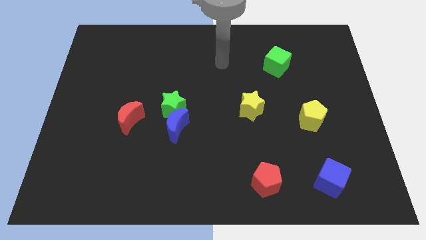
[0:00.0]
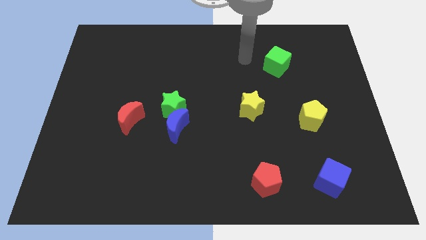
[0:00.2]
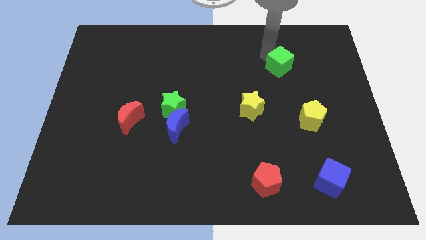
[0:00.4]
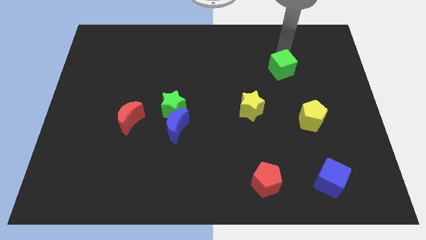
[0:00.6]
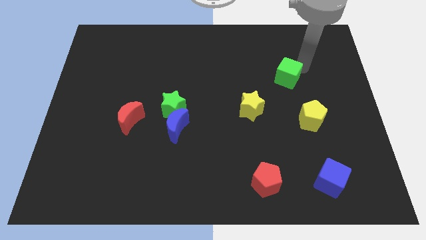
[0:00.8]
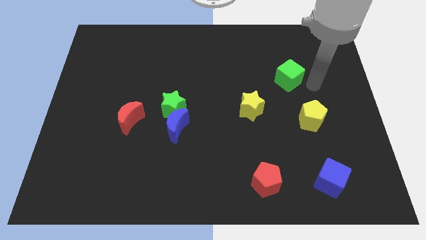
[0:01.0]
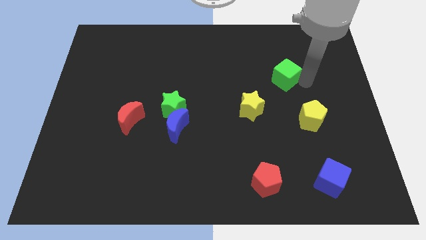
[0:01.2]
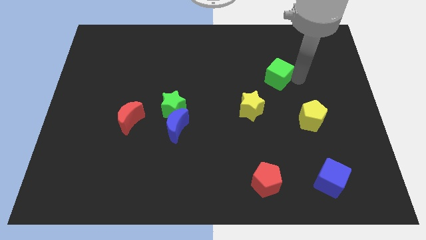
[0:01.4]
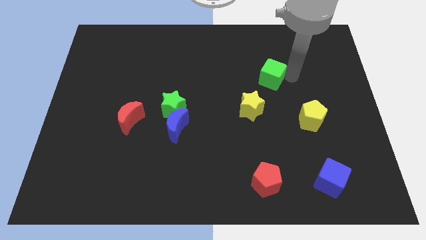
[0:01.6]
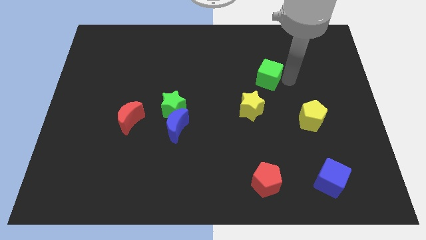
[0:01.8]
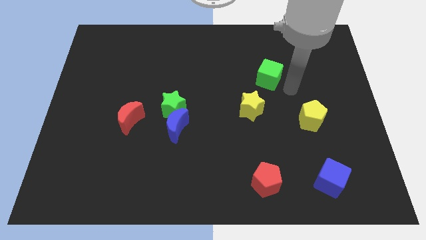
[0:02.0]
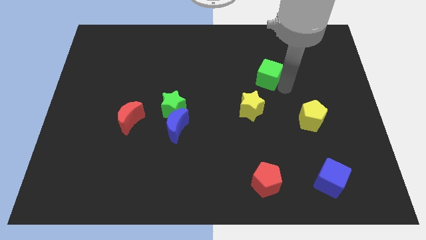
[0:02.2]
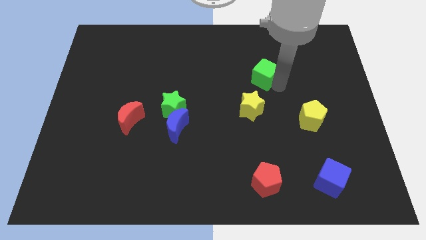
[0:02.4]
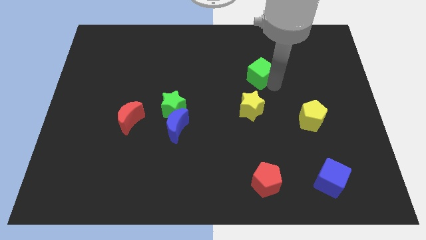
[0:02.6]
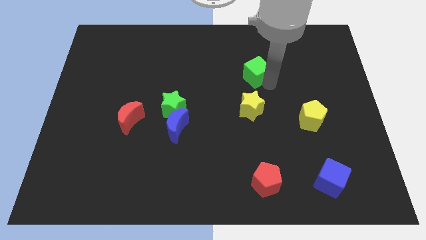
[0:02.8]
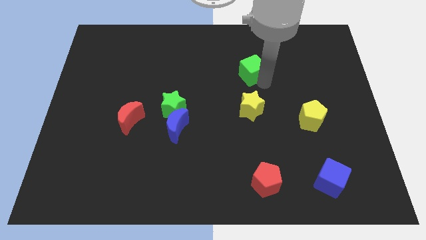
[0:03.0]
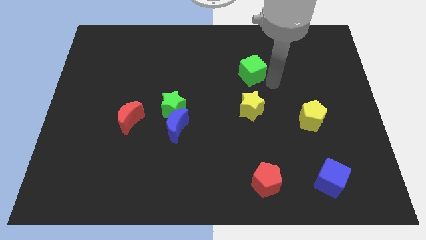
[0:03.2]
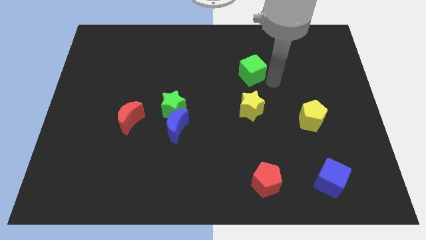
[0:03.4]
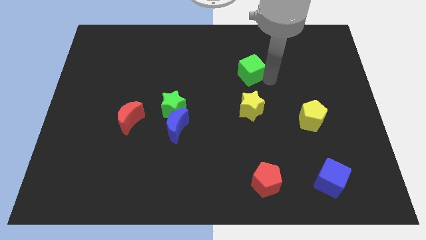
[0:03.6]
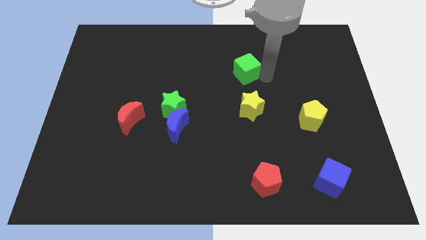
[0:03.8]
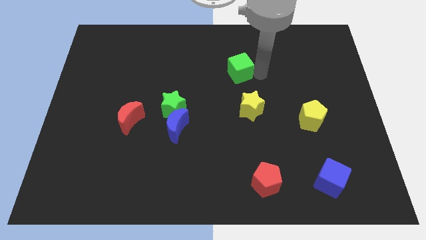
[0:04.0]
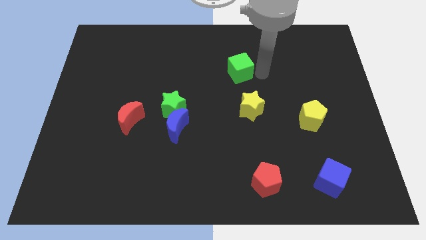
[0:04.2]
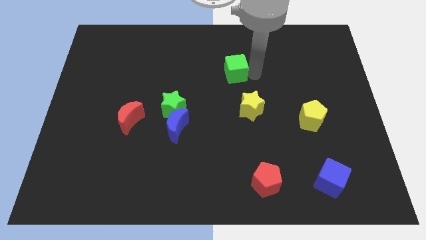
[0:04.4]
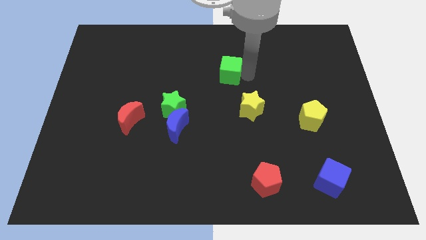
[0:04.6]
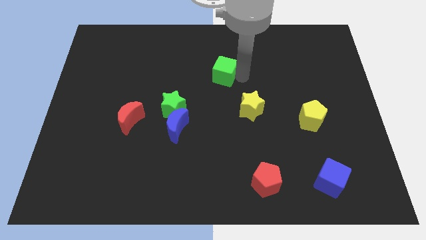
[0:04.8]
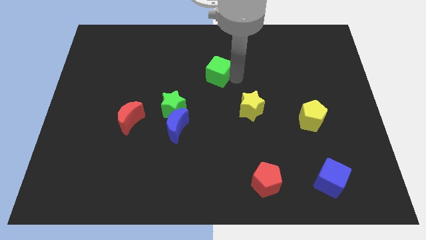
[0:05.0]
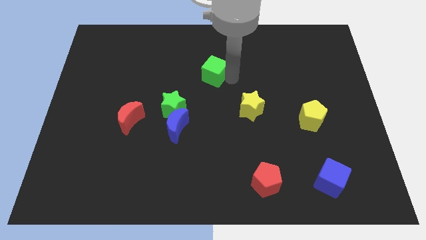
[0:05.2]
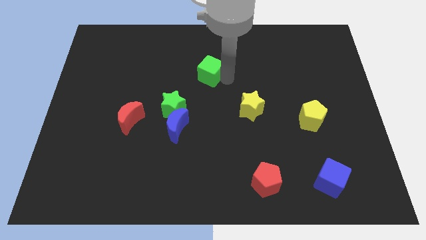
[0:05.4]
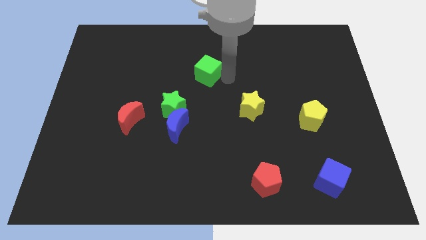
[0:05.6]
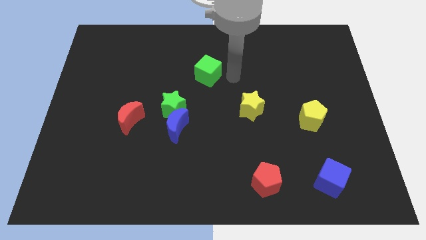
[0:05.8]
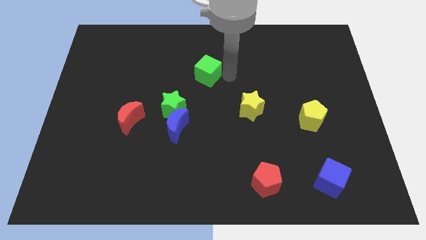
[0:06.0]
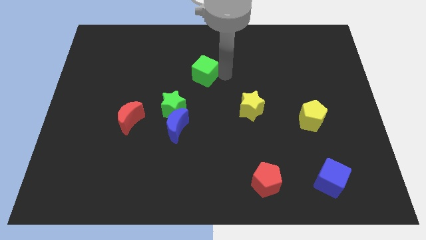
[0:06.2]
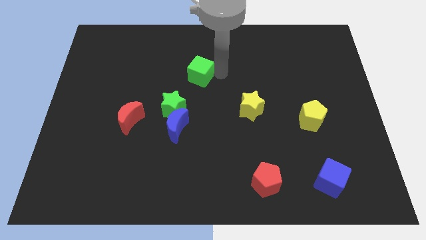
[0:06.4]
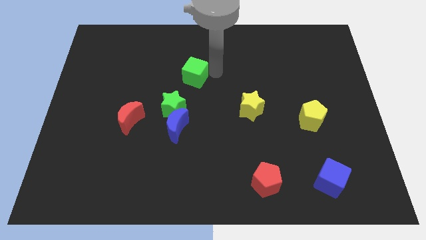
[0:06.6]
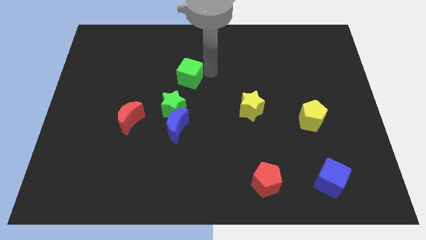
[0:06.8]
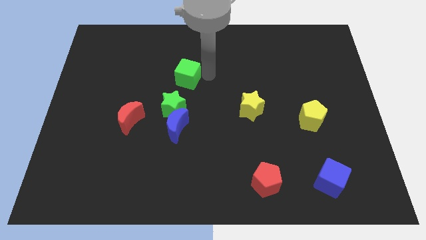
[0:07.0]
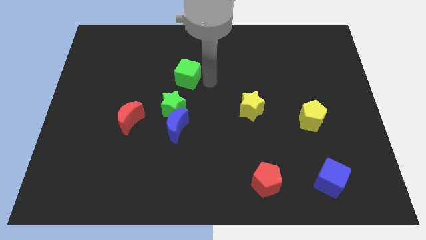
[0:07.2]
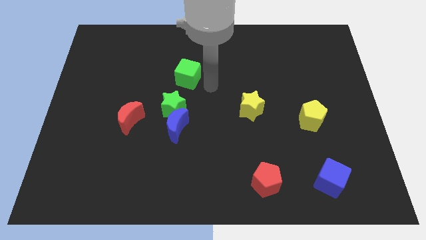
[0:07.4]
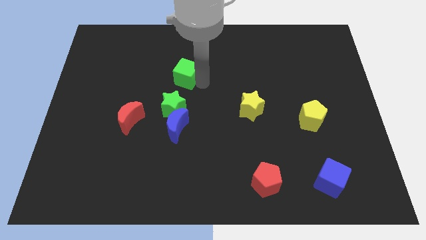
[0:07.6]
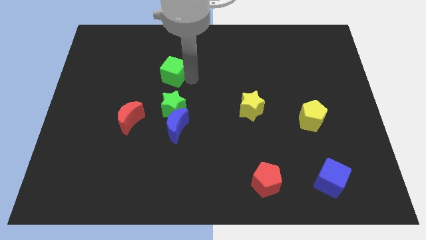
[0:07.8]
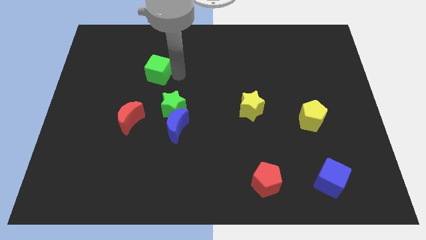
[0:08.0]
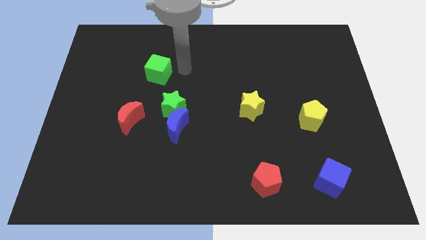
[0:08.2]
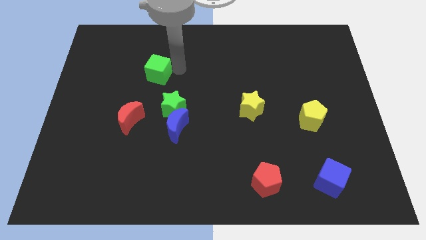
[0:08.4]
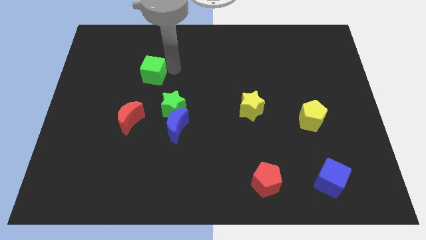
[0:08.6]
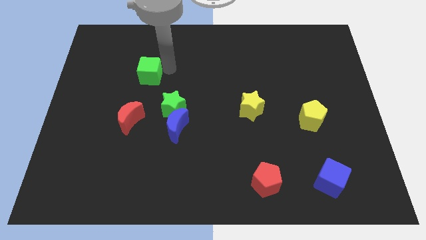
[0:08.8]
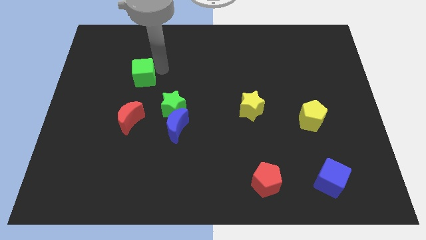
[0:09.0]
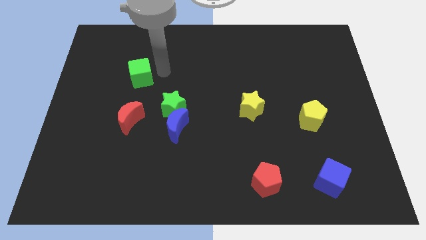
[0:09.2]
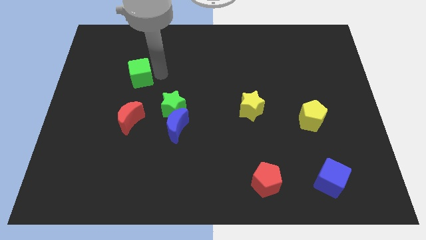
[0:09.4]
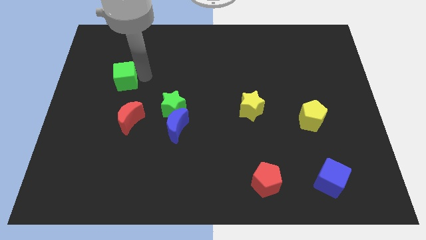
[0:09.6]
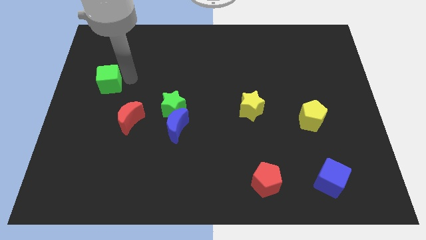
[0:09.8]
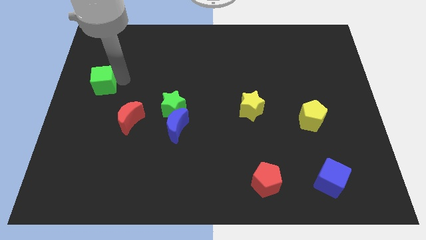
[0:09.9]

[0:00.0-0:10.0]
move the green cube to the left side

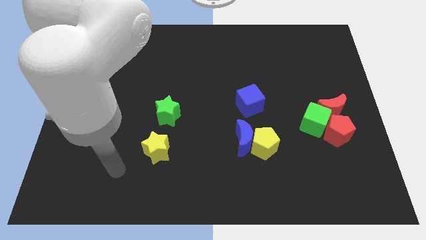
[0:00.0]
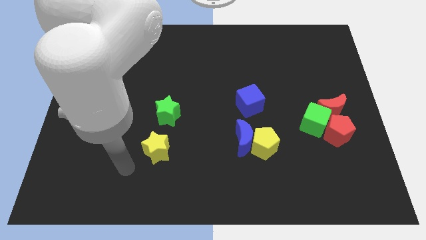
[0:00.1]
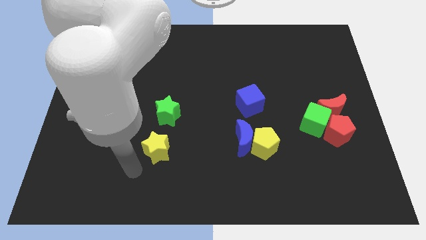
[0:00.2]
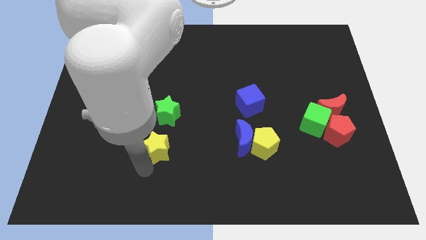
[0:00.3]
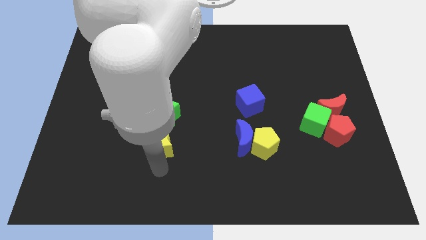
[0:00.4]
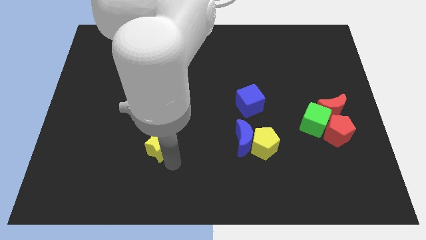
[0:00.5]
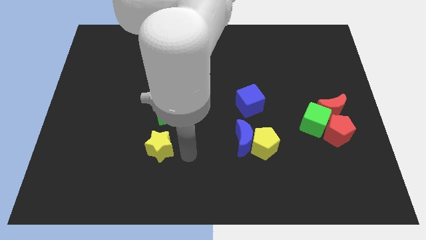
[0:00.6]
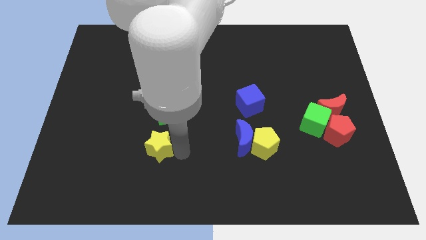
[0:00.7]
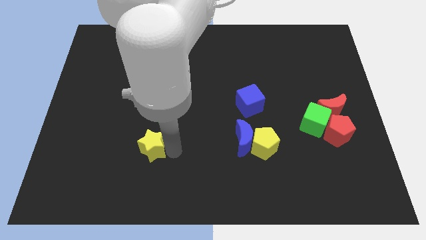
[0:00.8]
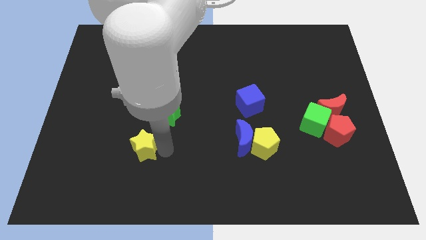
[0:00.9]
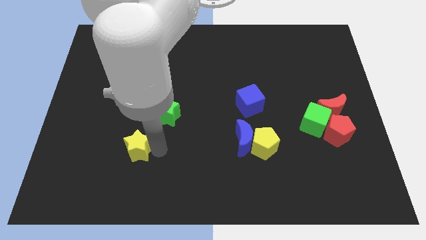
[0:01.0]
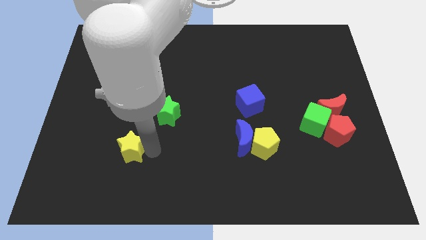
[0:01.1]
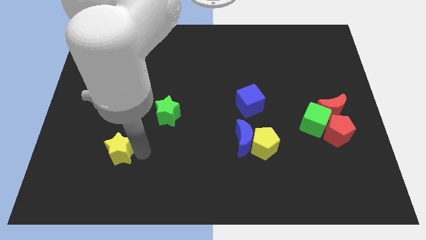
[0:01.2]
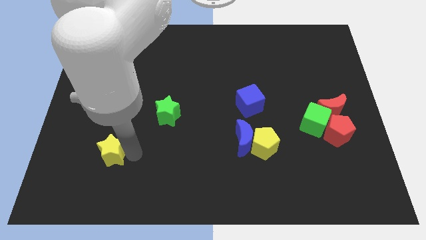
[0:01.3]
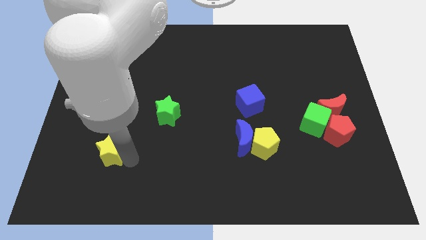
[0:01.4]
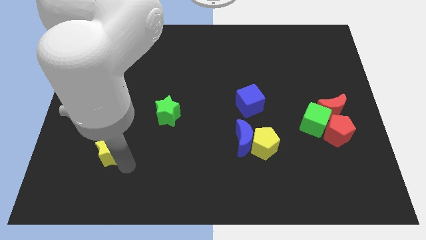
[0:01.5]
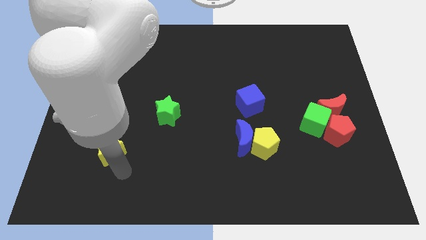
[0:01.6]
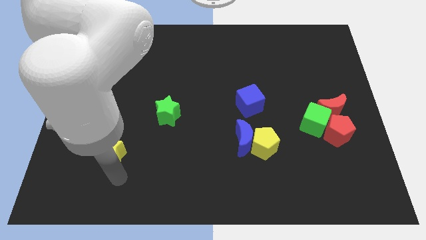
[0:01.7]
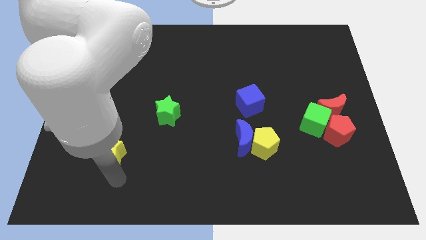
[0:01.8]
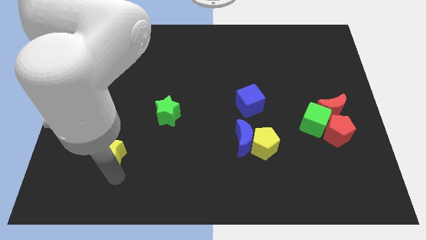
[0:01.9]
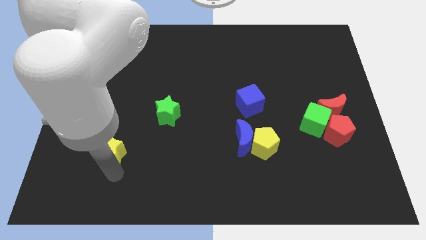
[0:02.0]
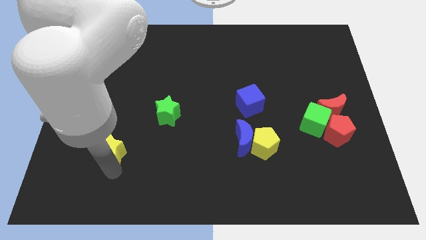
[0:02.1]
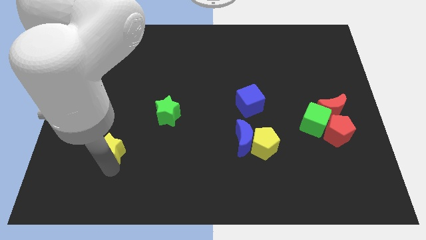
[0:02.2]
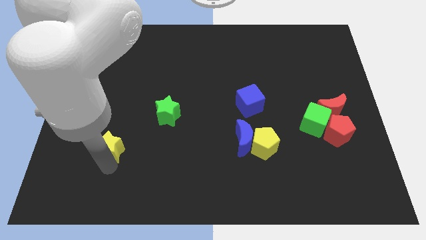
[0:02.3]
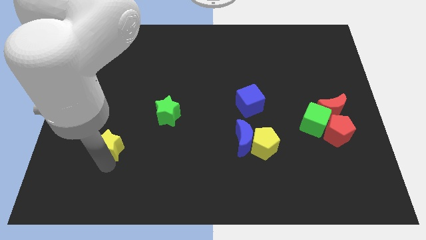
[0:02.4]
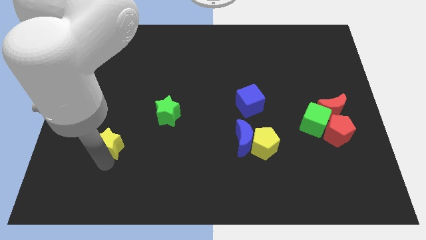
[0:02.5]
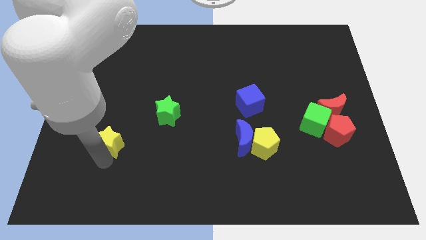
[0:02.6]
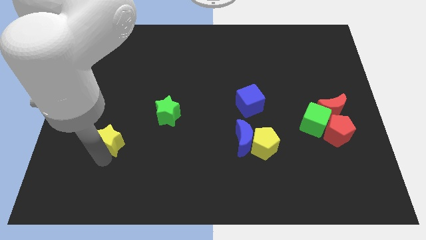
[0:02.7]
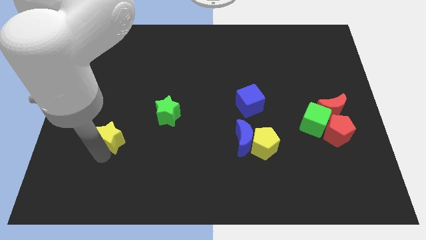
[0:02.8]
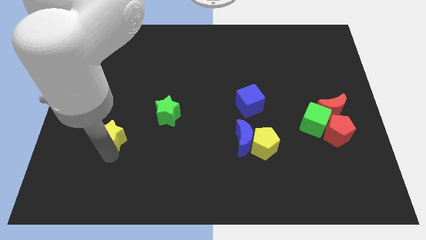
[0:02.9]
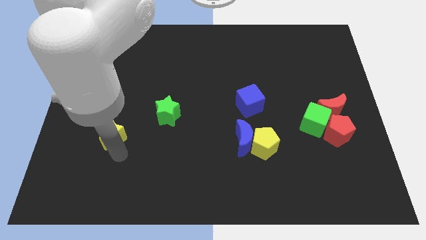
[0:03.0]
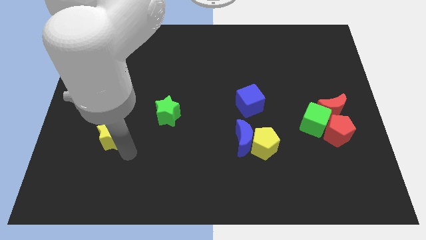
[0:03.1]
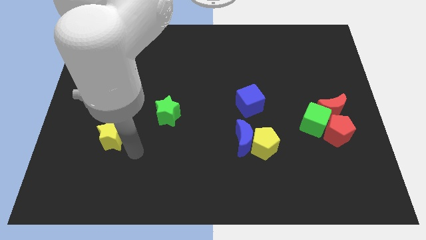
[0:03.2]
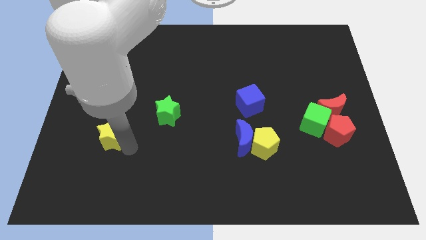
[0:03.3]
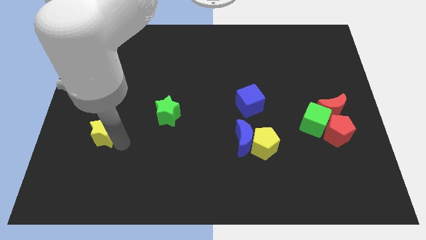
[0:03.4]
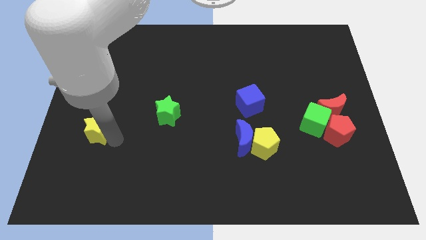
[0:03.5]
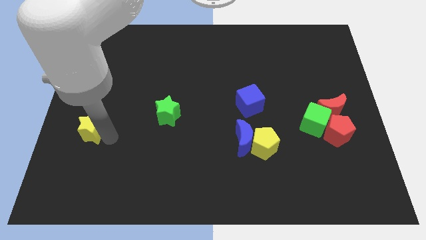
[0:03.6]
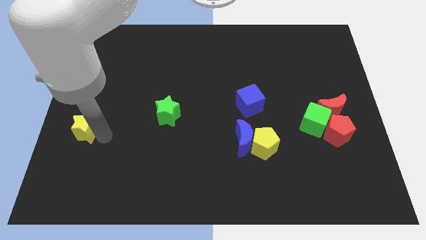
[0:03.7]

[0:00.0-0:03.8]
move the yellow star to the left side
